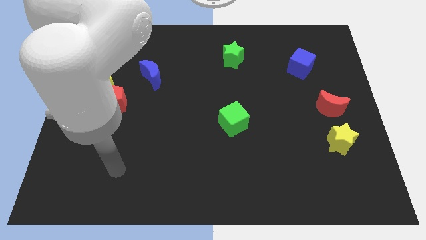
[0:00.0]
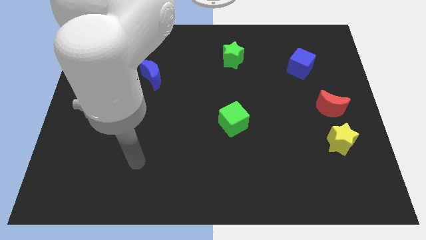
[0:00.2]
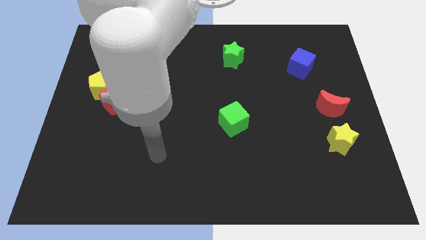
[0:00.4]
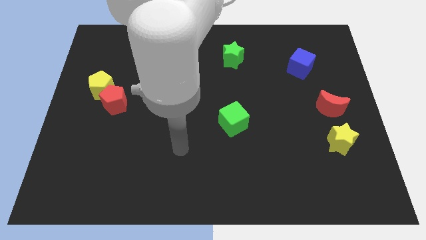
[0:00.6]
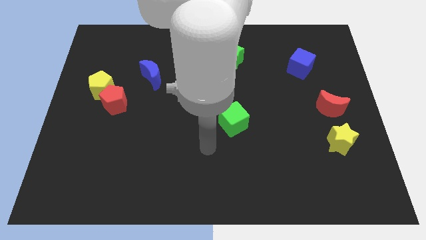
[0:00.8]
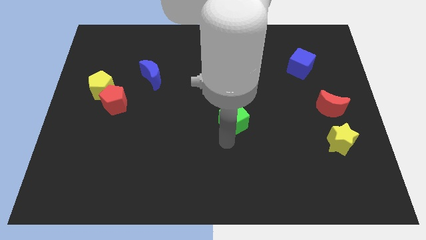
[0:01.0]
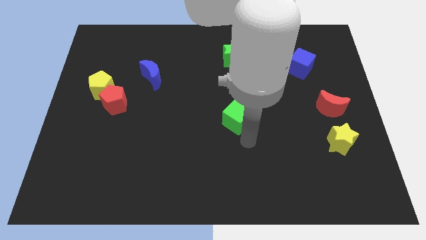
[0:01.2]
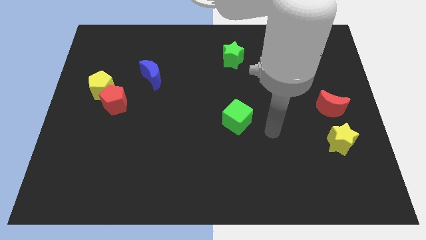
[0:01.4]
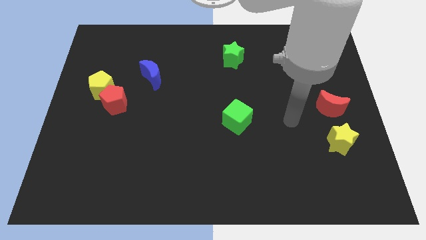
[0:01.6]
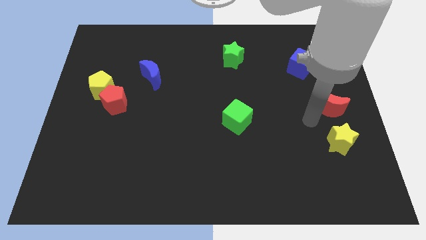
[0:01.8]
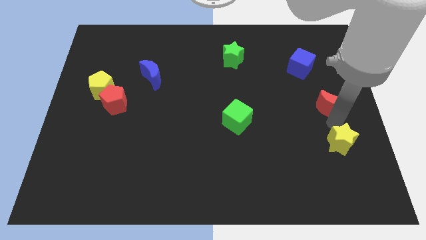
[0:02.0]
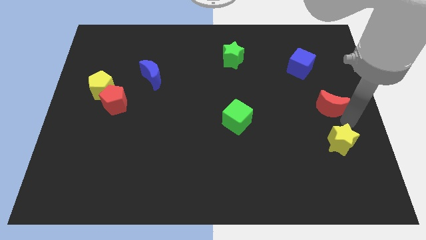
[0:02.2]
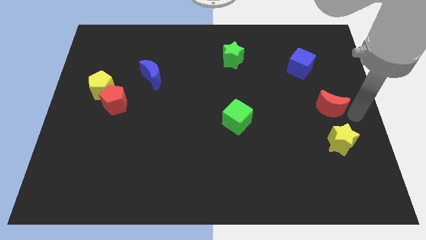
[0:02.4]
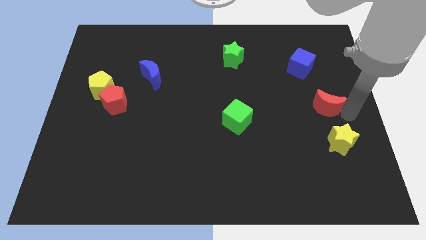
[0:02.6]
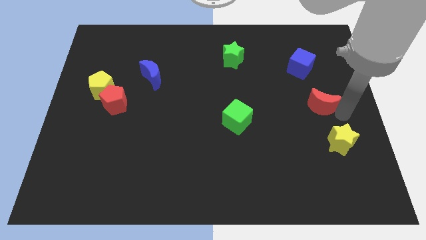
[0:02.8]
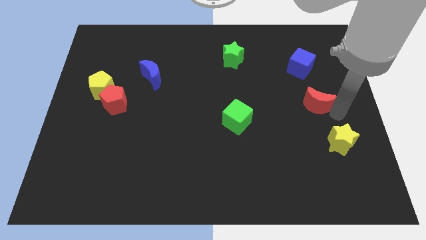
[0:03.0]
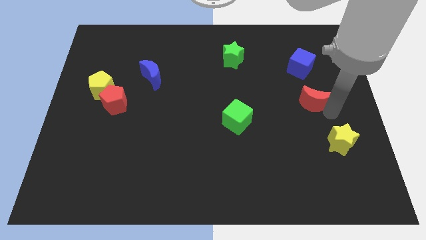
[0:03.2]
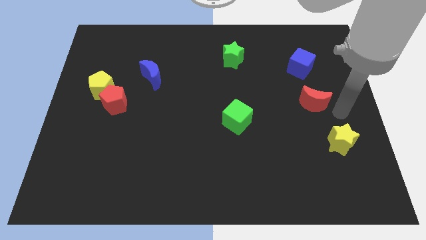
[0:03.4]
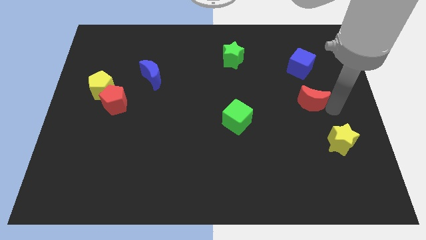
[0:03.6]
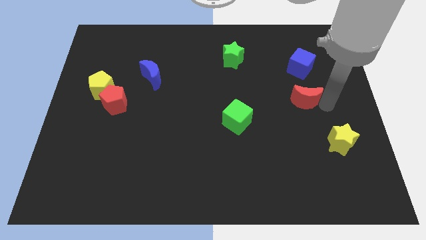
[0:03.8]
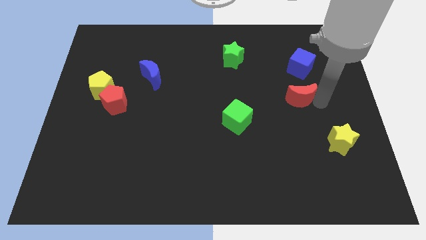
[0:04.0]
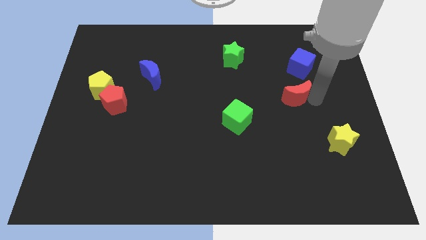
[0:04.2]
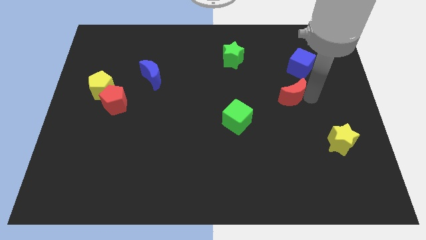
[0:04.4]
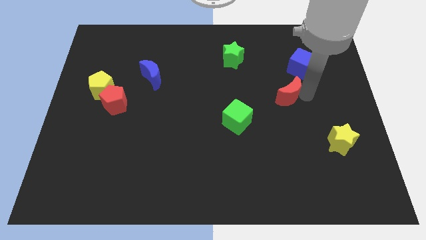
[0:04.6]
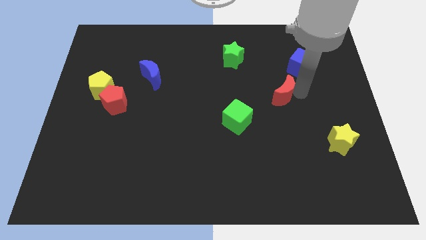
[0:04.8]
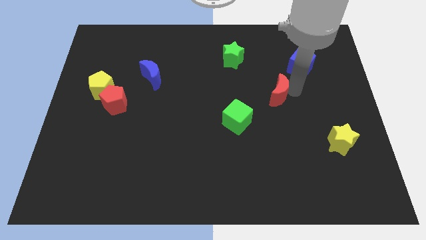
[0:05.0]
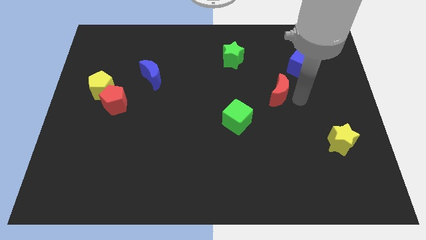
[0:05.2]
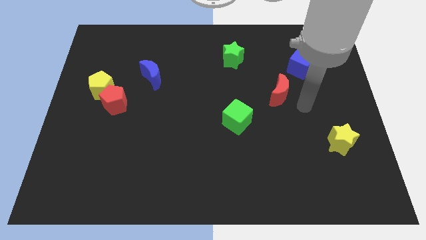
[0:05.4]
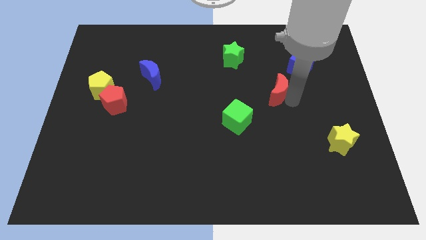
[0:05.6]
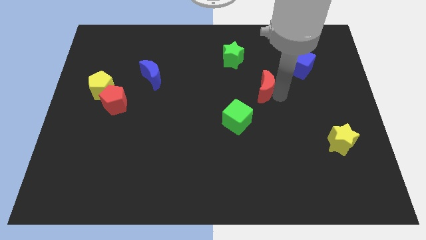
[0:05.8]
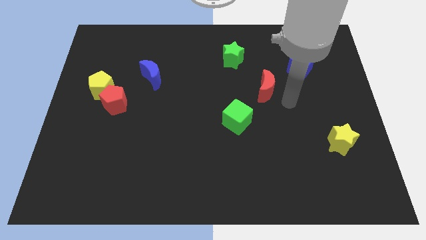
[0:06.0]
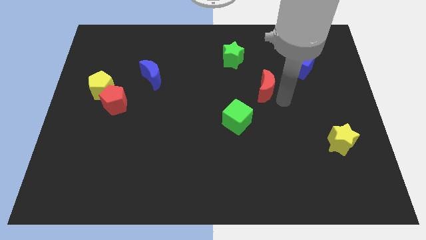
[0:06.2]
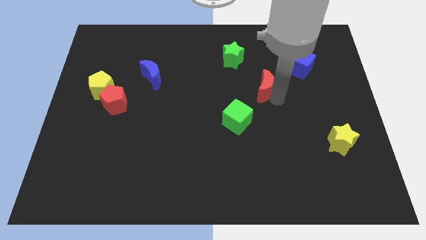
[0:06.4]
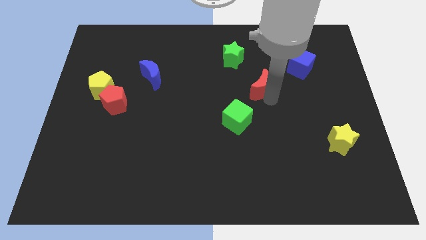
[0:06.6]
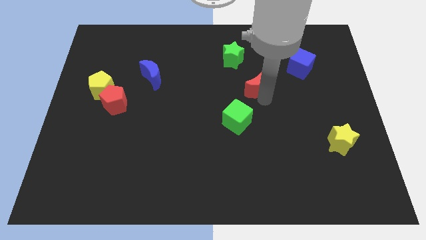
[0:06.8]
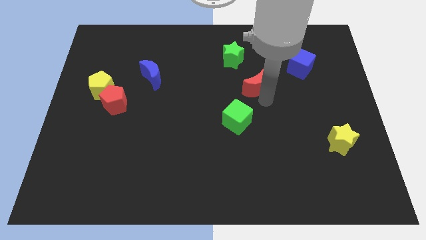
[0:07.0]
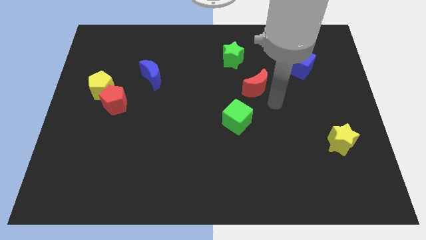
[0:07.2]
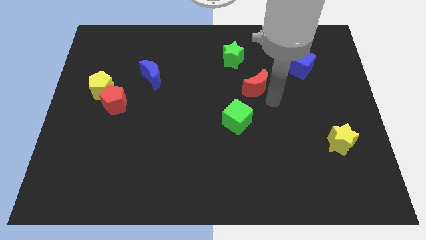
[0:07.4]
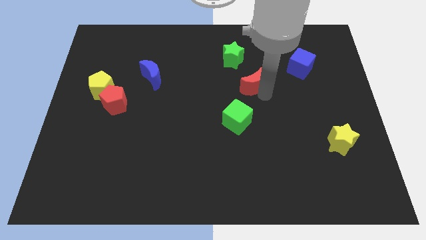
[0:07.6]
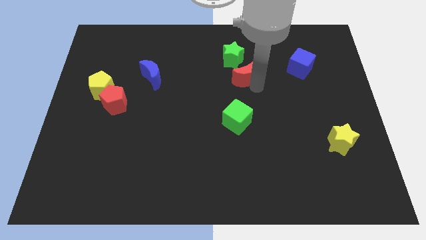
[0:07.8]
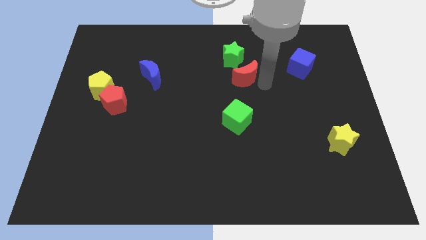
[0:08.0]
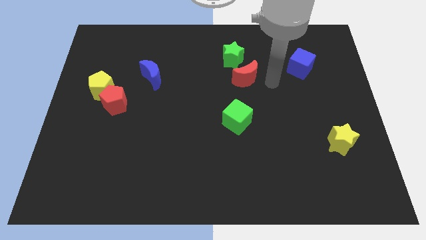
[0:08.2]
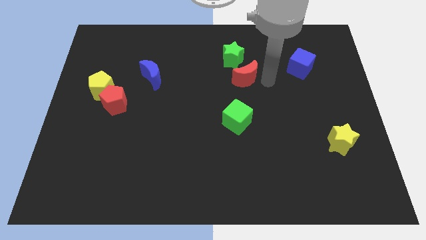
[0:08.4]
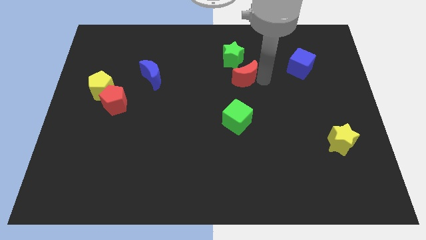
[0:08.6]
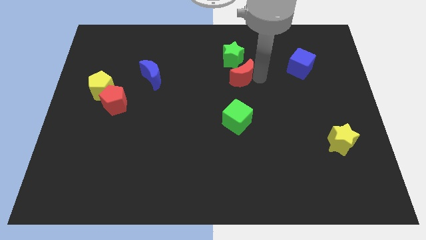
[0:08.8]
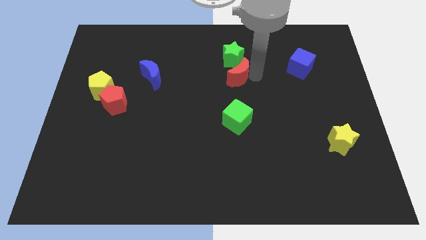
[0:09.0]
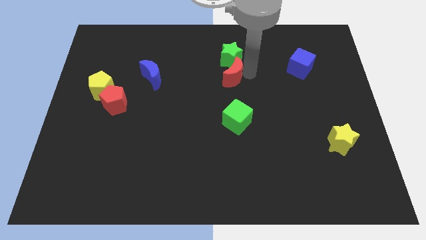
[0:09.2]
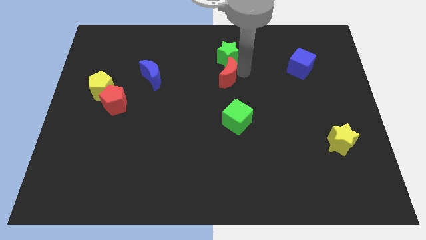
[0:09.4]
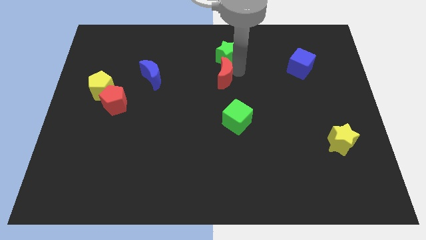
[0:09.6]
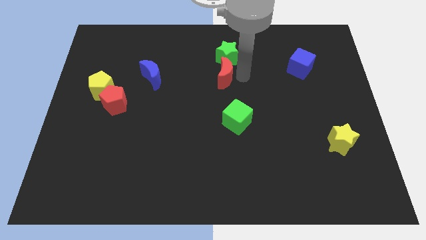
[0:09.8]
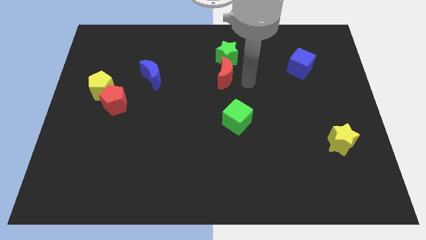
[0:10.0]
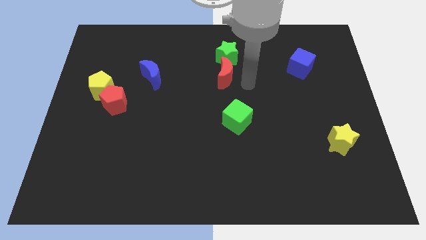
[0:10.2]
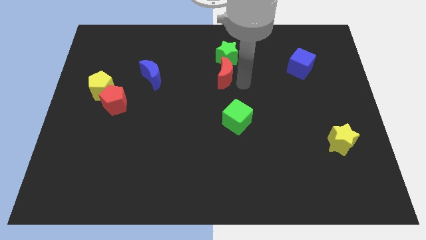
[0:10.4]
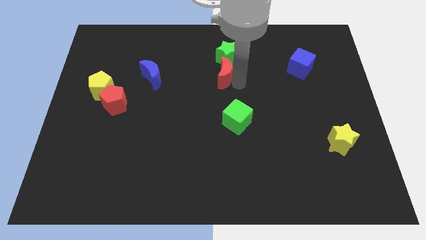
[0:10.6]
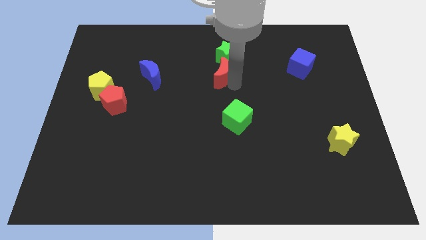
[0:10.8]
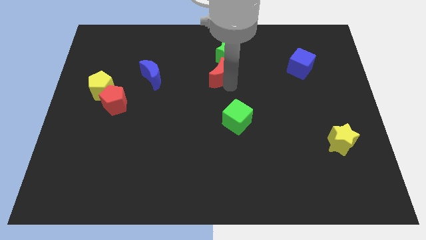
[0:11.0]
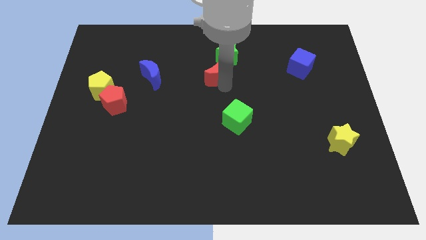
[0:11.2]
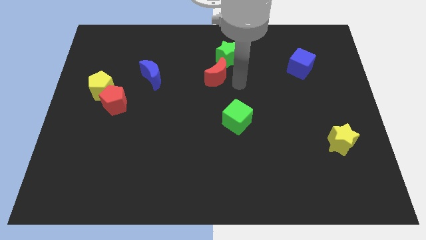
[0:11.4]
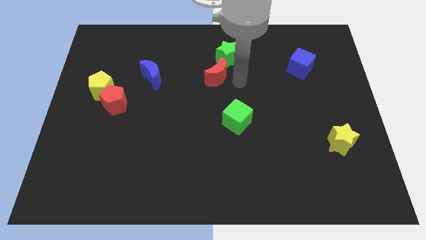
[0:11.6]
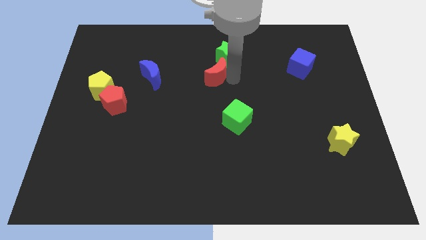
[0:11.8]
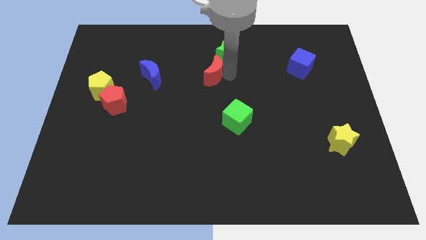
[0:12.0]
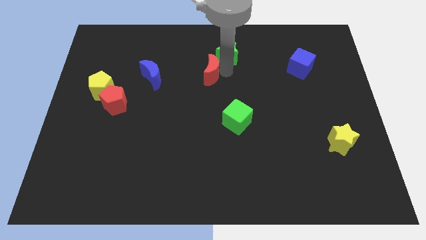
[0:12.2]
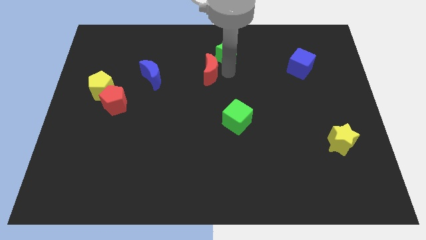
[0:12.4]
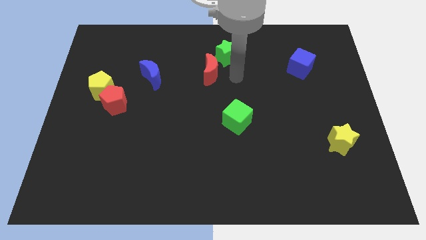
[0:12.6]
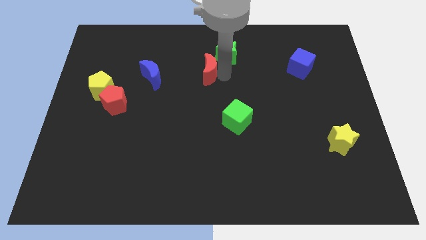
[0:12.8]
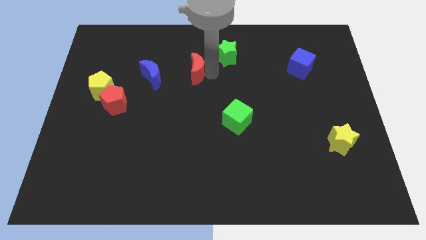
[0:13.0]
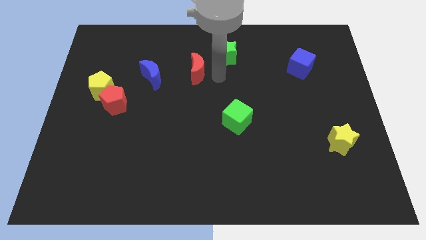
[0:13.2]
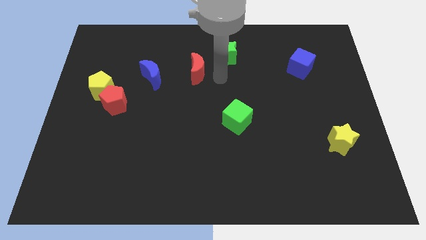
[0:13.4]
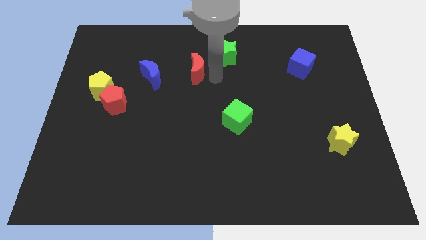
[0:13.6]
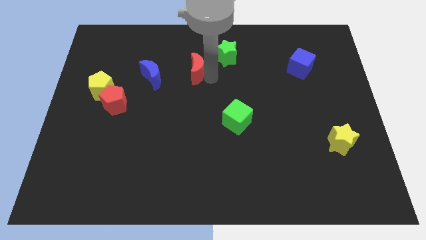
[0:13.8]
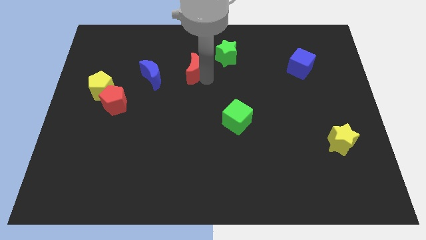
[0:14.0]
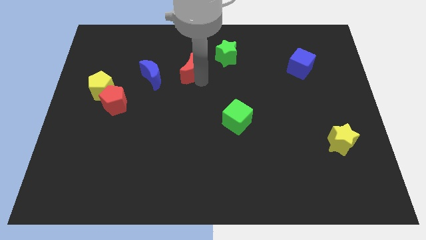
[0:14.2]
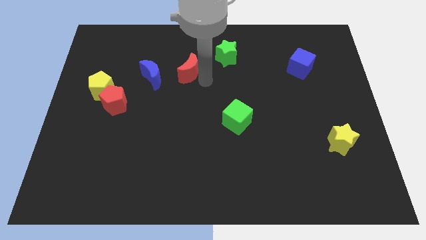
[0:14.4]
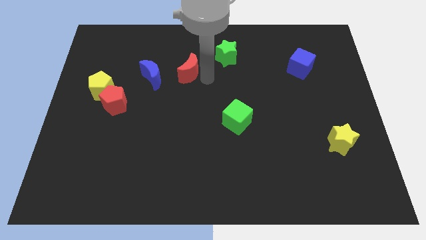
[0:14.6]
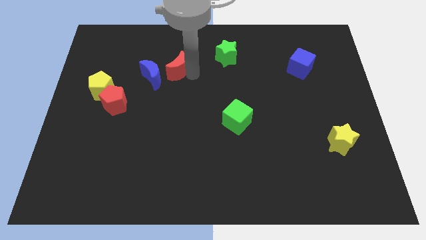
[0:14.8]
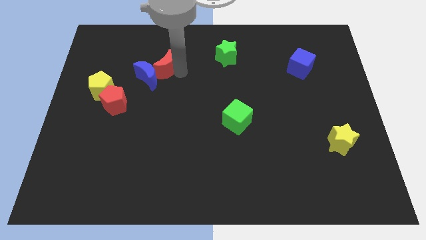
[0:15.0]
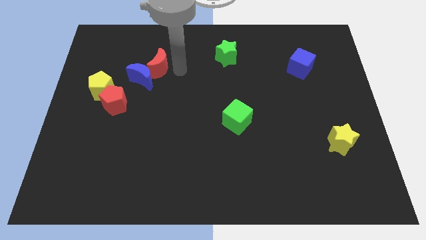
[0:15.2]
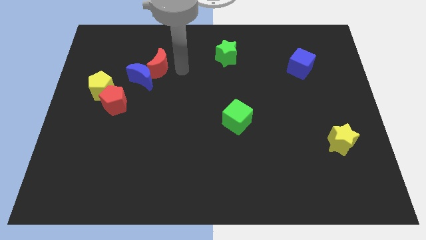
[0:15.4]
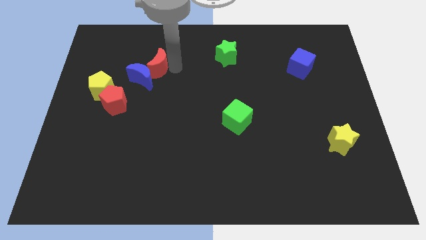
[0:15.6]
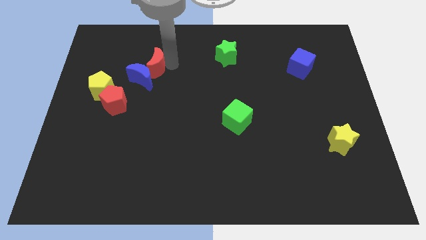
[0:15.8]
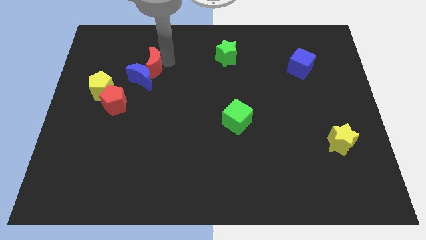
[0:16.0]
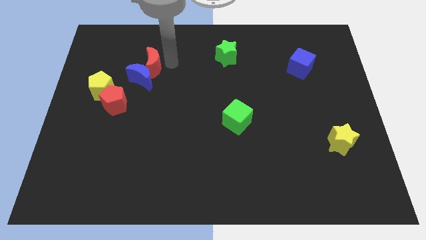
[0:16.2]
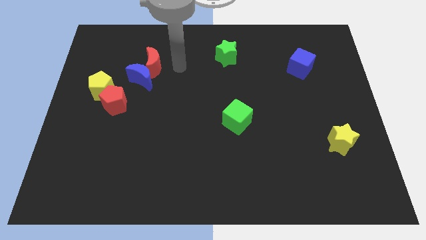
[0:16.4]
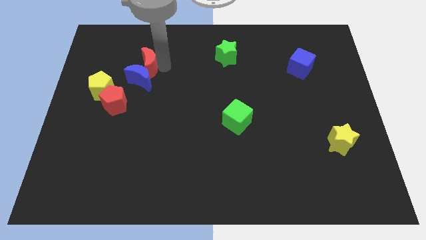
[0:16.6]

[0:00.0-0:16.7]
move the red moon to the top left of the blue moon
